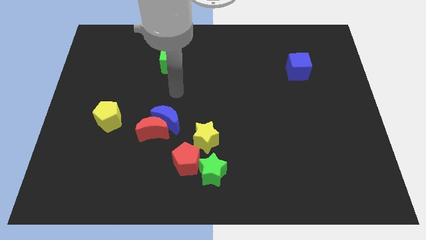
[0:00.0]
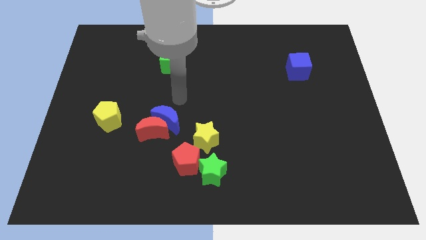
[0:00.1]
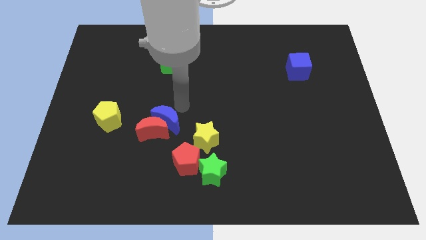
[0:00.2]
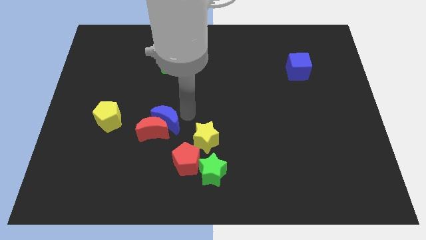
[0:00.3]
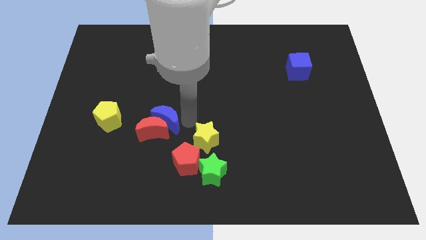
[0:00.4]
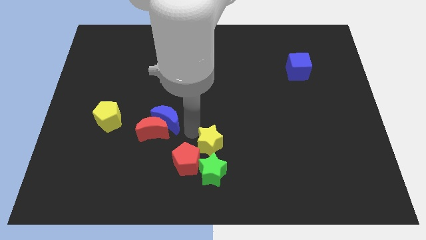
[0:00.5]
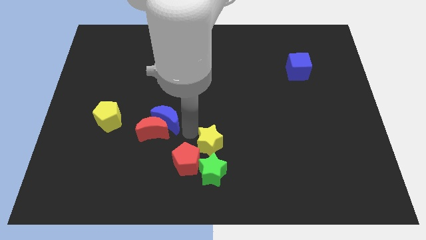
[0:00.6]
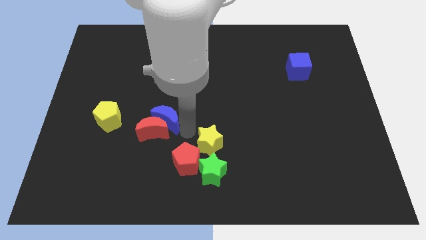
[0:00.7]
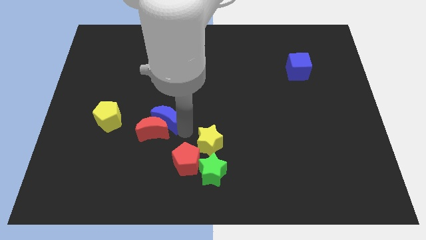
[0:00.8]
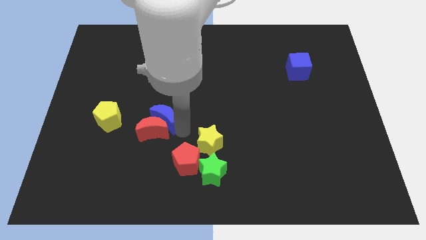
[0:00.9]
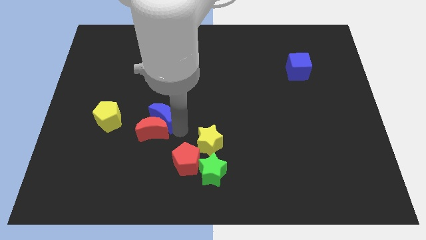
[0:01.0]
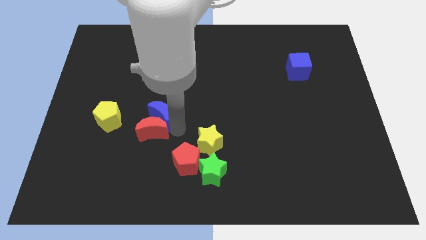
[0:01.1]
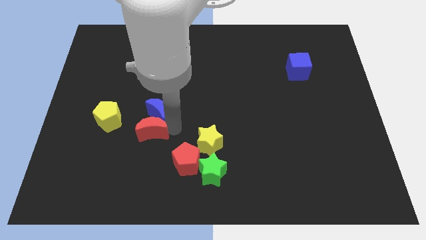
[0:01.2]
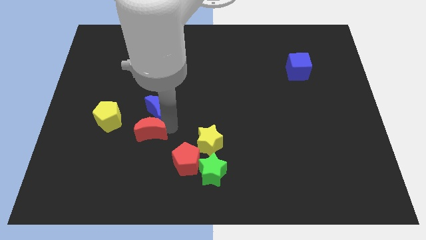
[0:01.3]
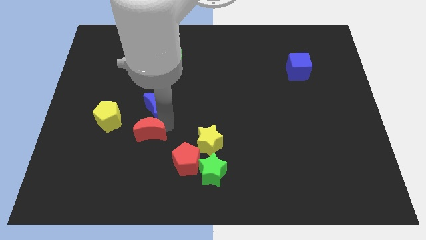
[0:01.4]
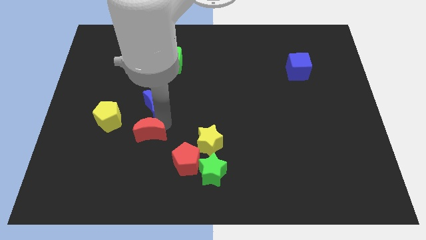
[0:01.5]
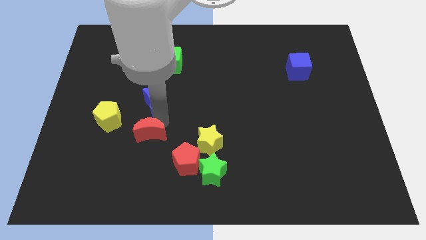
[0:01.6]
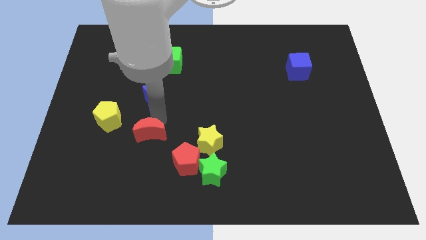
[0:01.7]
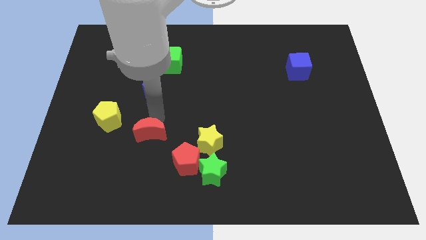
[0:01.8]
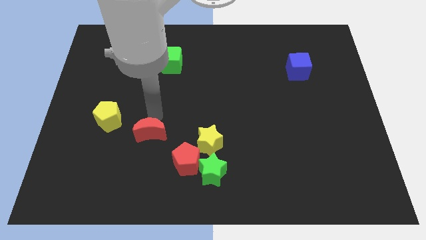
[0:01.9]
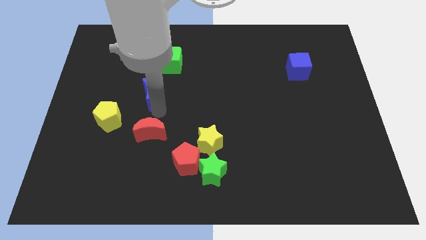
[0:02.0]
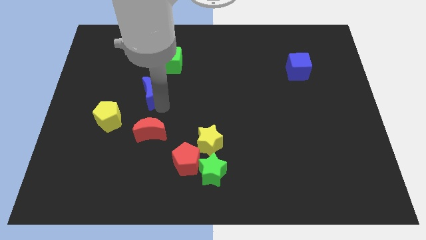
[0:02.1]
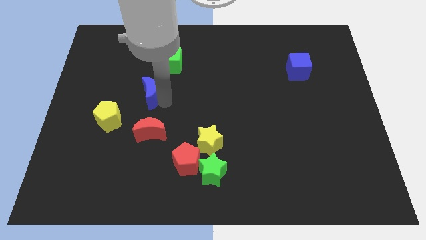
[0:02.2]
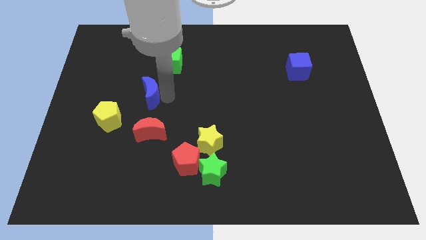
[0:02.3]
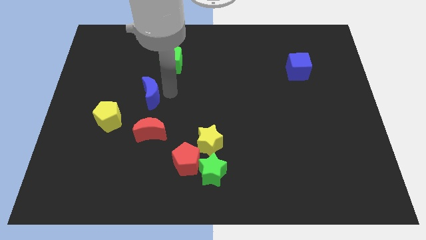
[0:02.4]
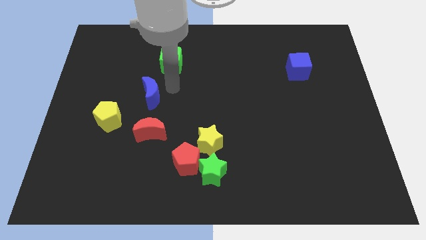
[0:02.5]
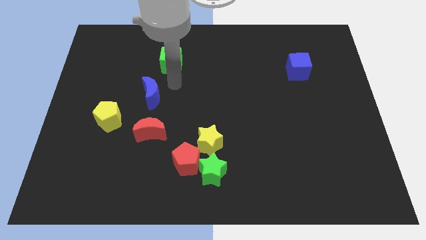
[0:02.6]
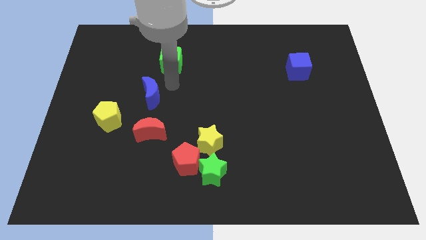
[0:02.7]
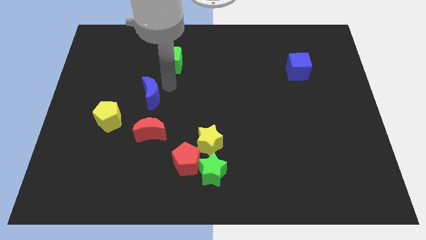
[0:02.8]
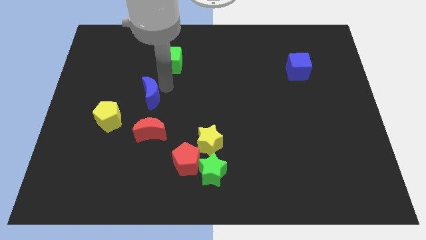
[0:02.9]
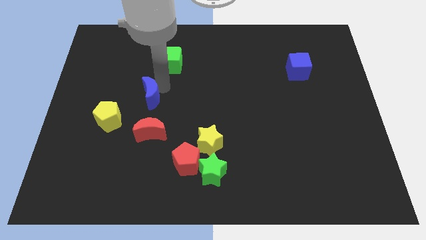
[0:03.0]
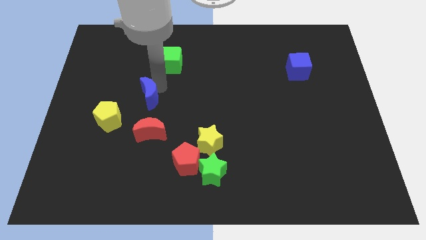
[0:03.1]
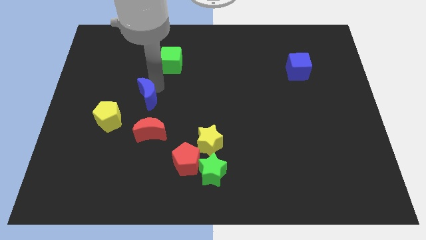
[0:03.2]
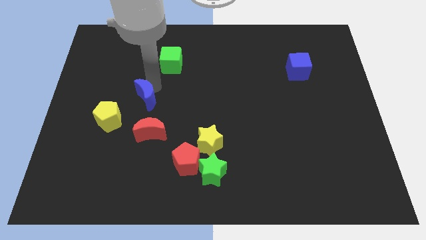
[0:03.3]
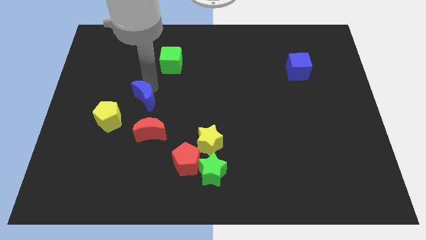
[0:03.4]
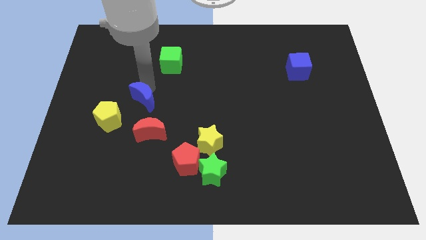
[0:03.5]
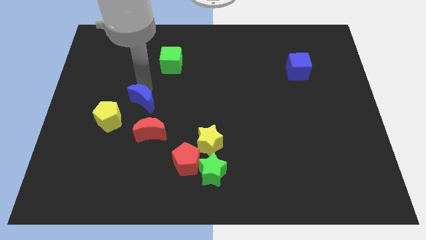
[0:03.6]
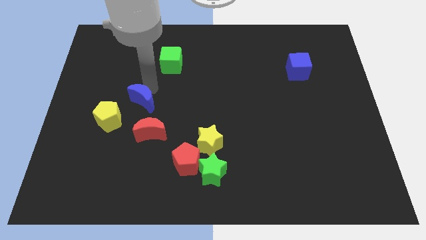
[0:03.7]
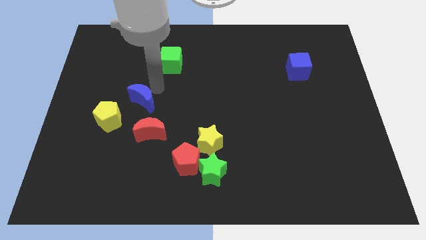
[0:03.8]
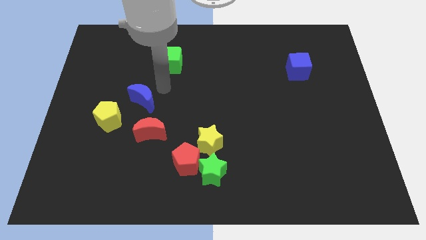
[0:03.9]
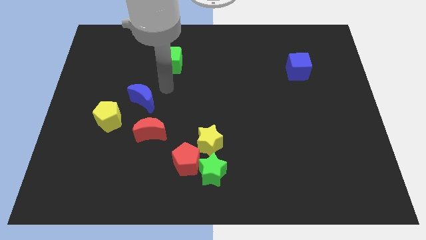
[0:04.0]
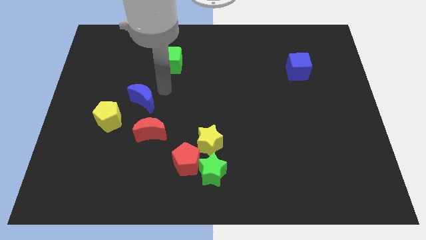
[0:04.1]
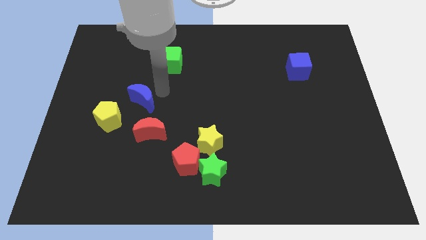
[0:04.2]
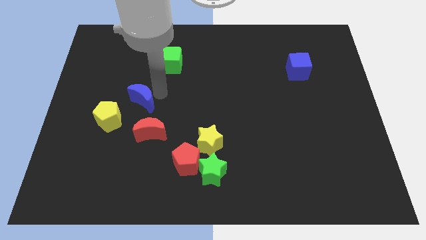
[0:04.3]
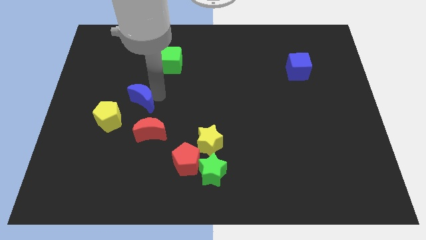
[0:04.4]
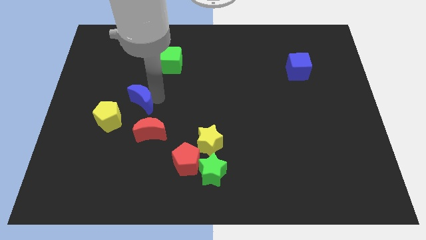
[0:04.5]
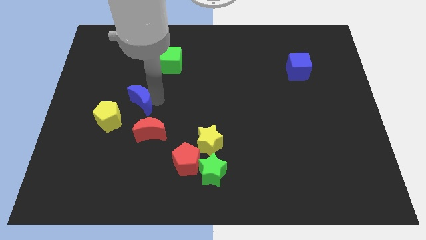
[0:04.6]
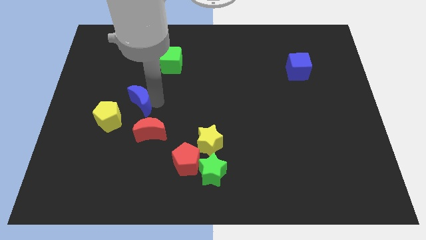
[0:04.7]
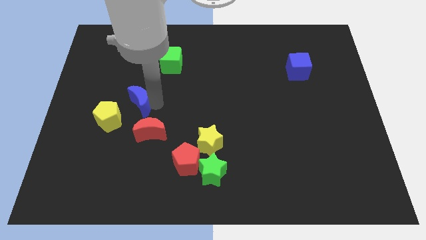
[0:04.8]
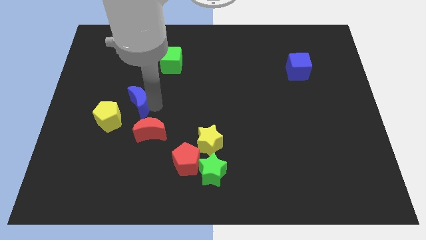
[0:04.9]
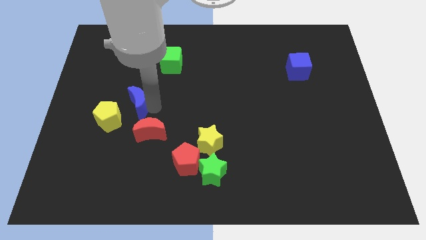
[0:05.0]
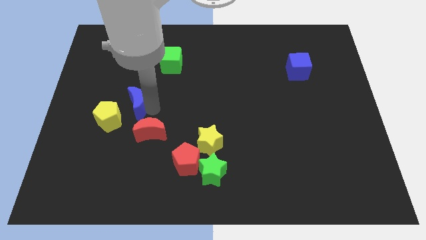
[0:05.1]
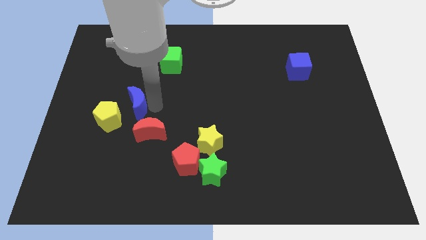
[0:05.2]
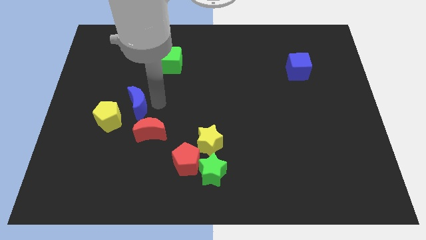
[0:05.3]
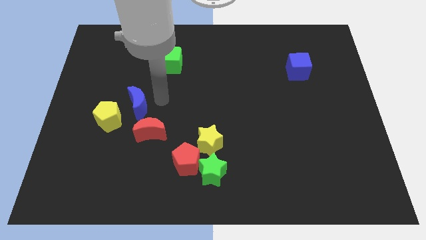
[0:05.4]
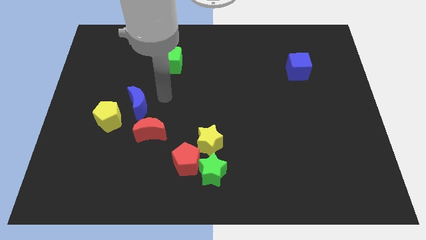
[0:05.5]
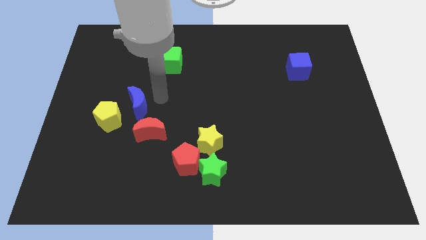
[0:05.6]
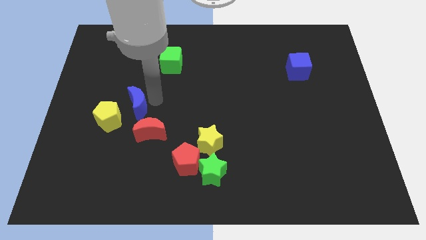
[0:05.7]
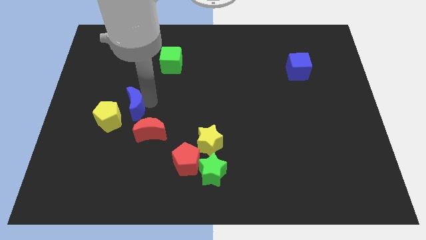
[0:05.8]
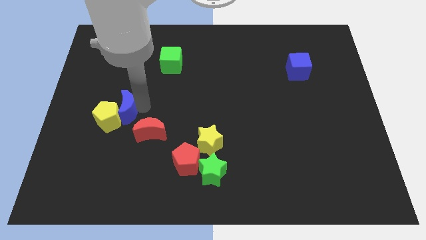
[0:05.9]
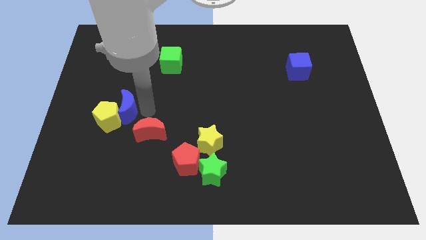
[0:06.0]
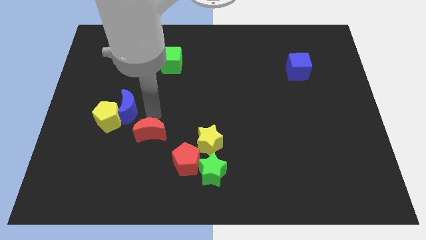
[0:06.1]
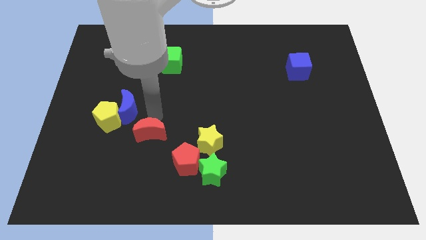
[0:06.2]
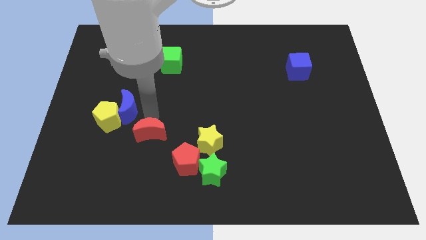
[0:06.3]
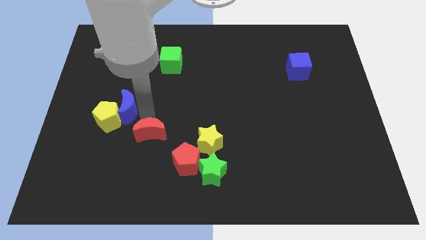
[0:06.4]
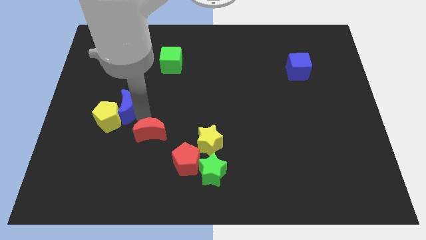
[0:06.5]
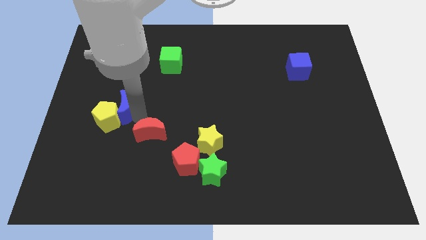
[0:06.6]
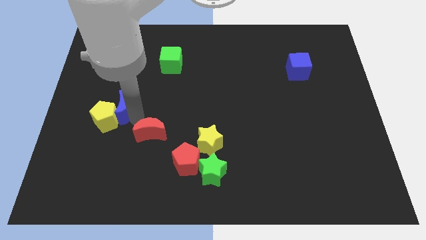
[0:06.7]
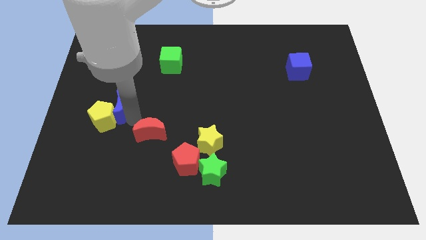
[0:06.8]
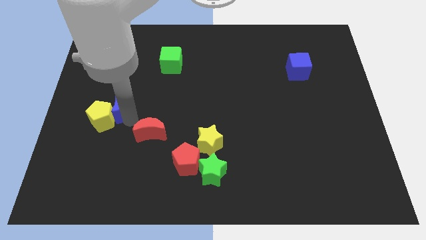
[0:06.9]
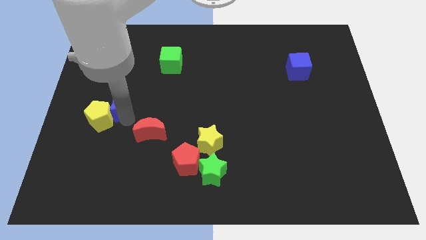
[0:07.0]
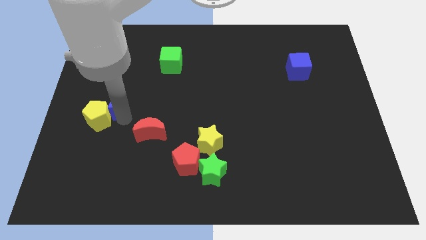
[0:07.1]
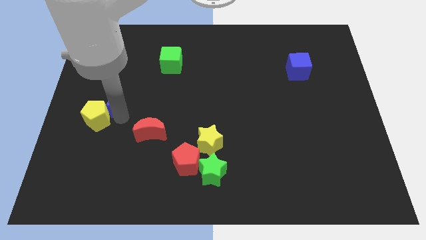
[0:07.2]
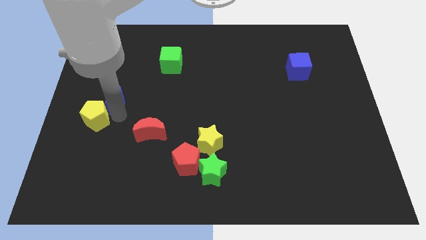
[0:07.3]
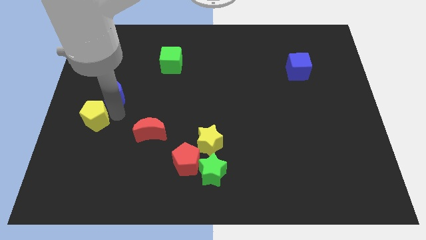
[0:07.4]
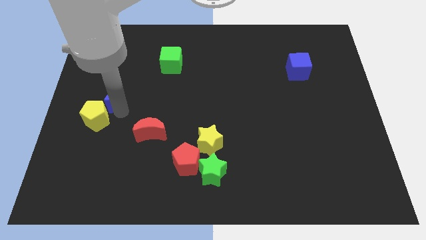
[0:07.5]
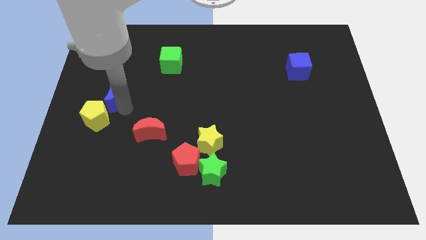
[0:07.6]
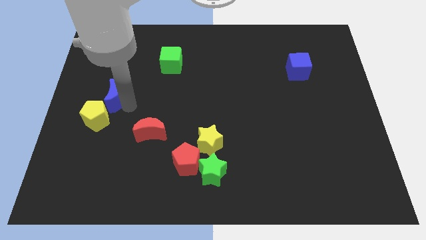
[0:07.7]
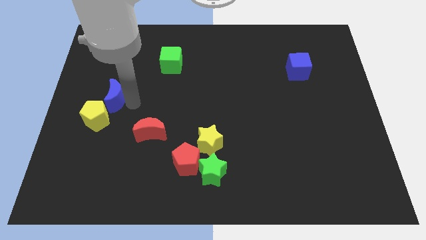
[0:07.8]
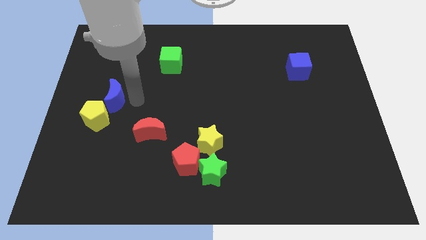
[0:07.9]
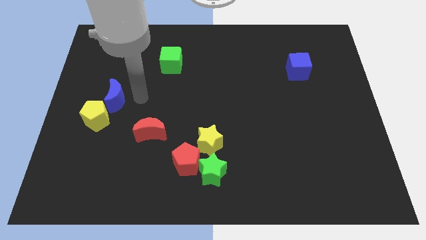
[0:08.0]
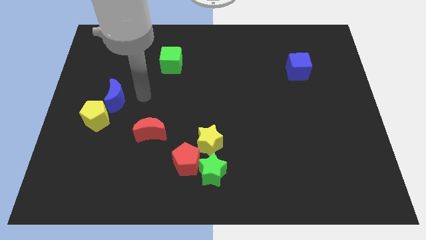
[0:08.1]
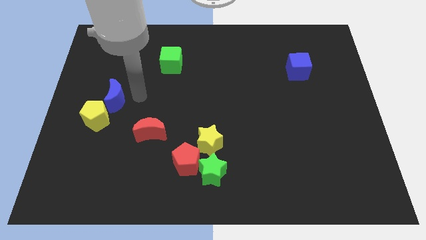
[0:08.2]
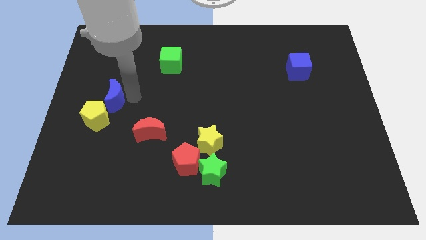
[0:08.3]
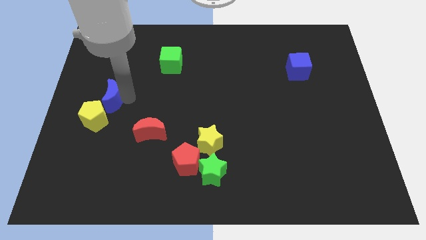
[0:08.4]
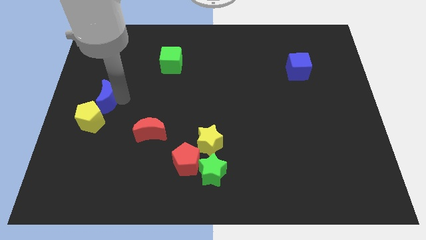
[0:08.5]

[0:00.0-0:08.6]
put the blue moon to the left side of the board
